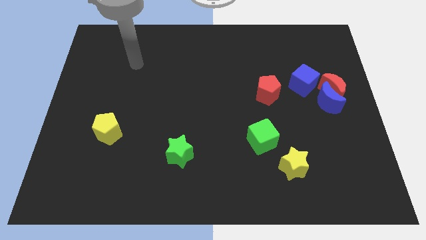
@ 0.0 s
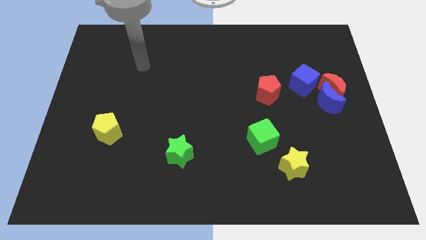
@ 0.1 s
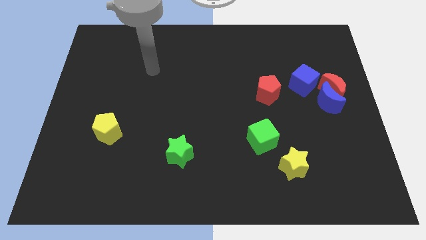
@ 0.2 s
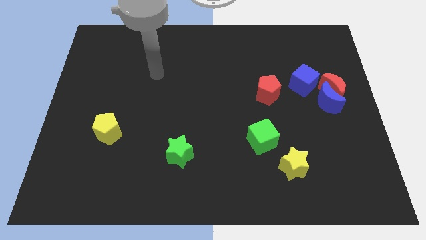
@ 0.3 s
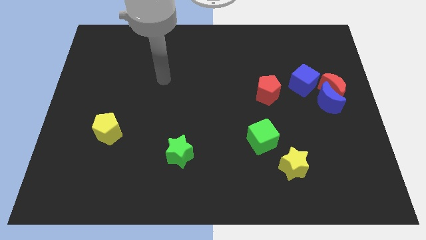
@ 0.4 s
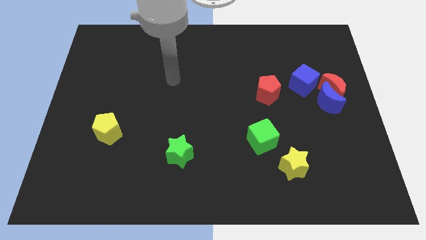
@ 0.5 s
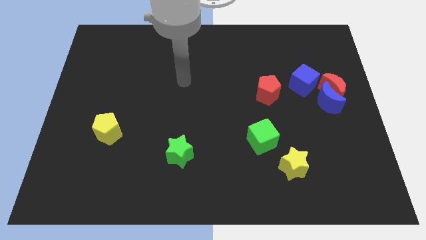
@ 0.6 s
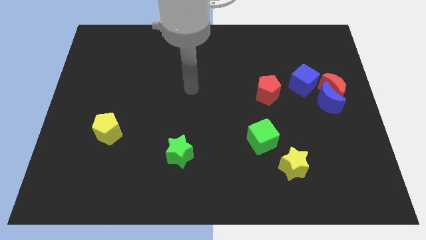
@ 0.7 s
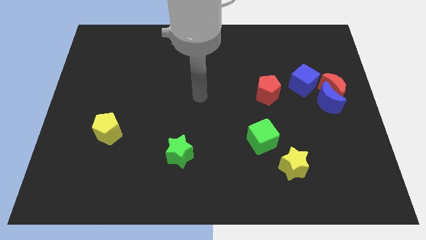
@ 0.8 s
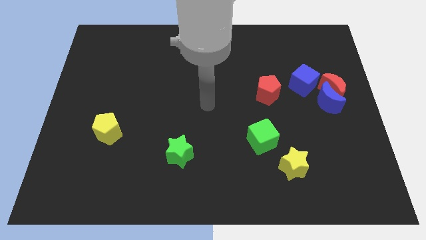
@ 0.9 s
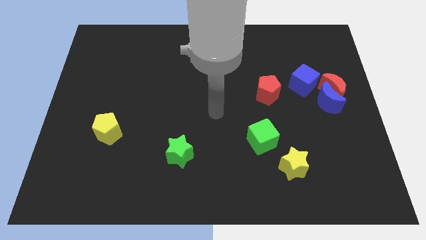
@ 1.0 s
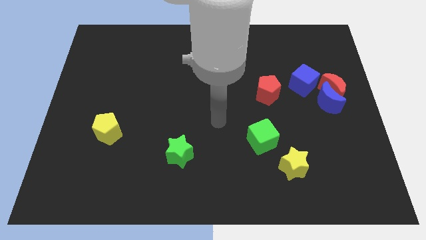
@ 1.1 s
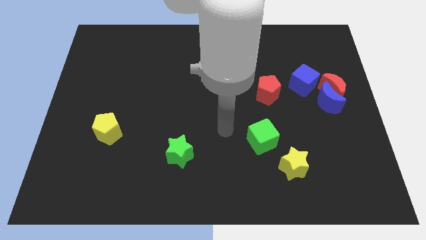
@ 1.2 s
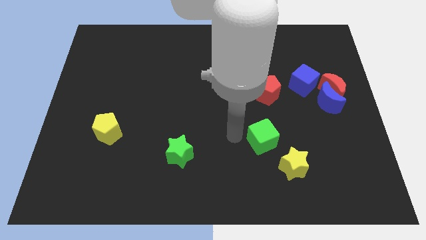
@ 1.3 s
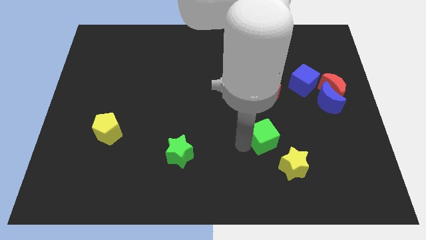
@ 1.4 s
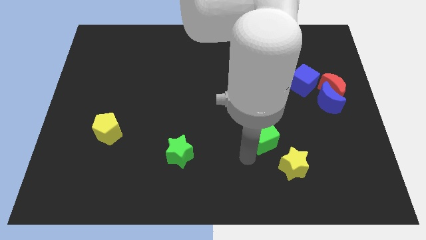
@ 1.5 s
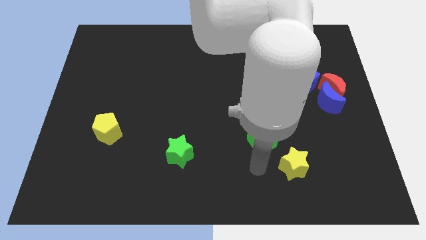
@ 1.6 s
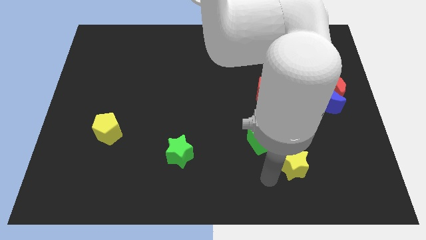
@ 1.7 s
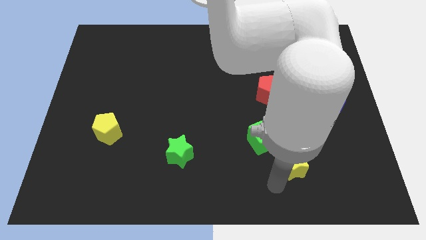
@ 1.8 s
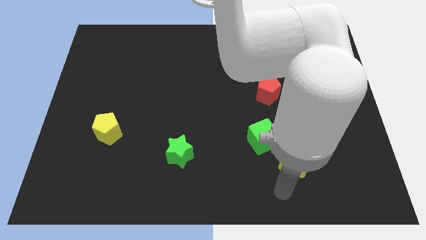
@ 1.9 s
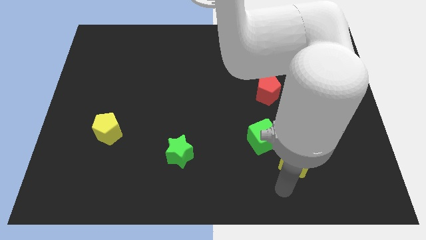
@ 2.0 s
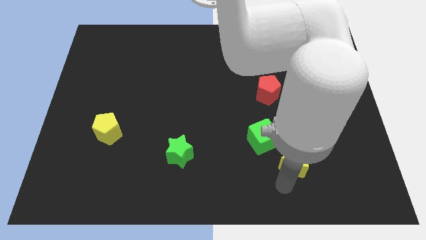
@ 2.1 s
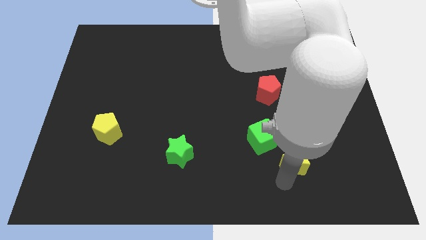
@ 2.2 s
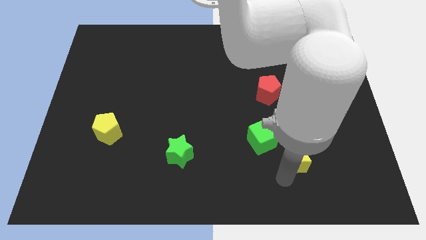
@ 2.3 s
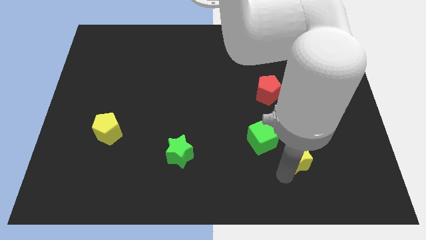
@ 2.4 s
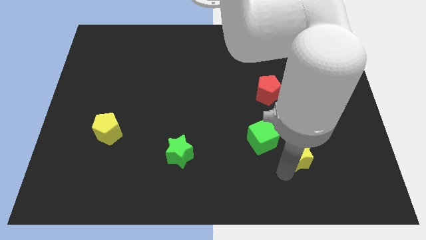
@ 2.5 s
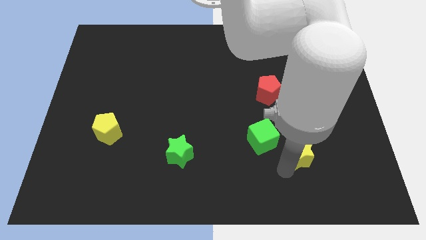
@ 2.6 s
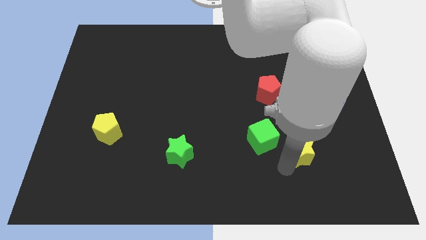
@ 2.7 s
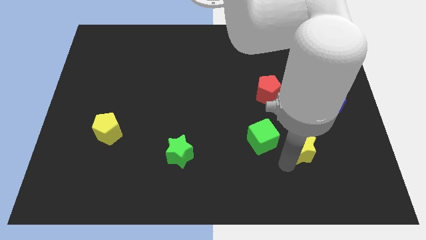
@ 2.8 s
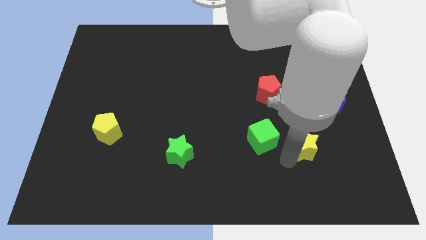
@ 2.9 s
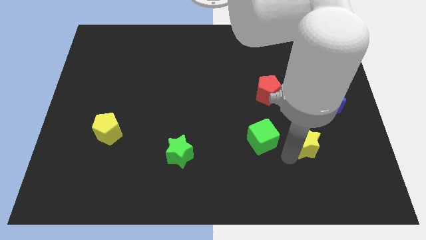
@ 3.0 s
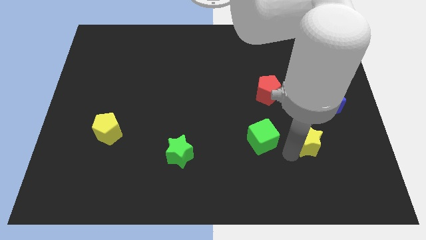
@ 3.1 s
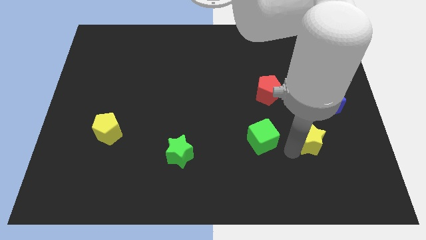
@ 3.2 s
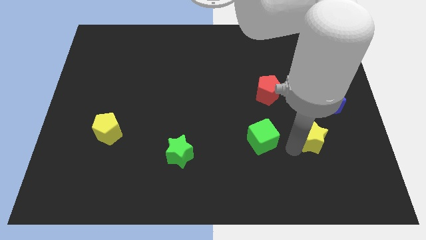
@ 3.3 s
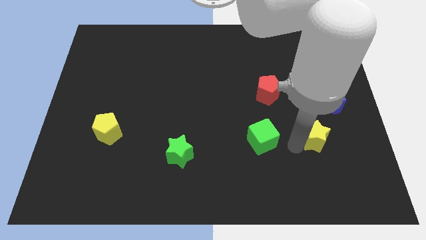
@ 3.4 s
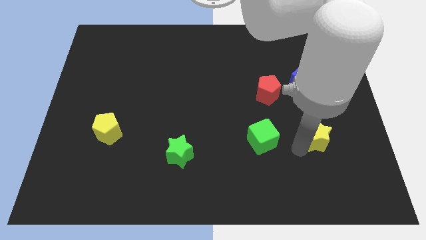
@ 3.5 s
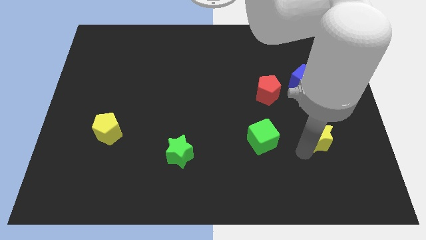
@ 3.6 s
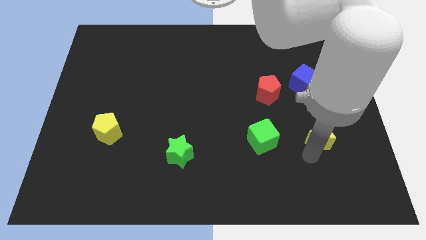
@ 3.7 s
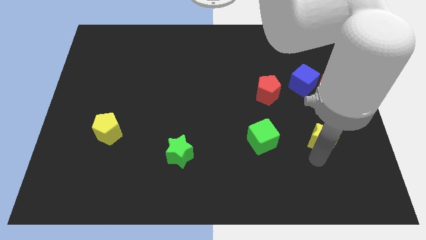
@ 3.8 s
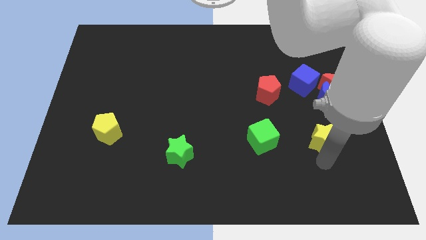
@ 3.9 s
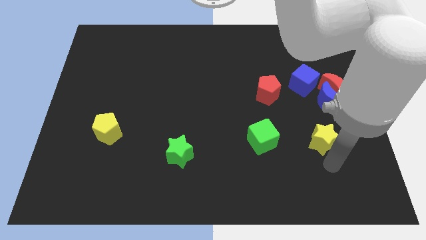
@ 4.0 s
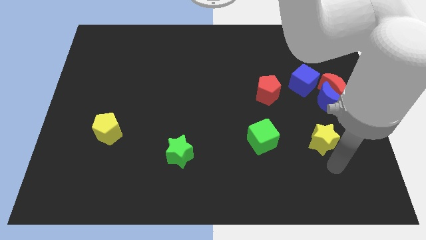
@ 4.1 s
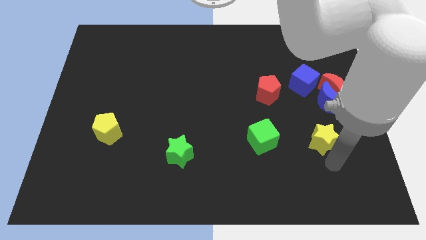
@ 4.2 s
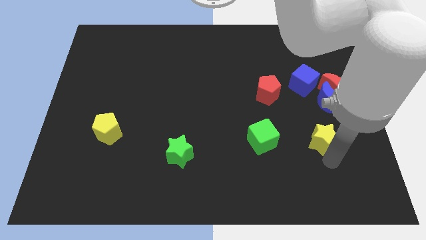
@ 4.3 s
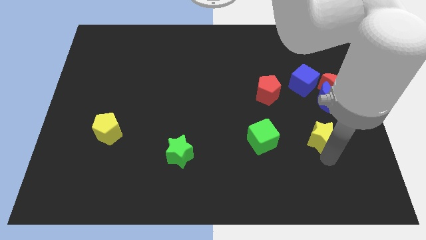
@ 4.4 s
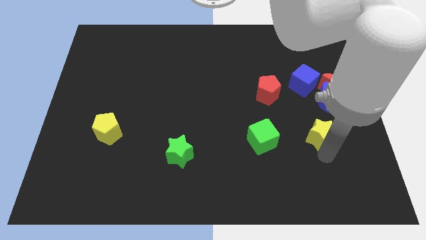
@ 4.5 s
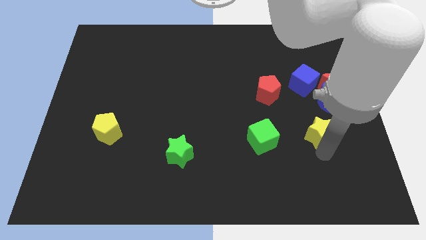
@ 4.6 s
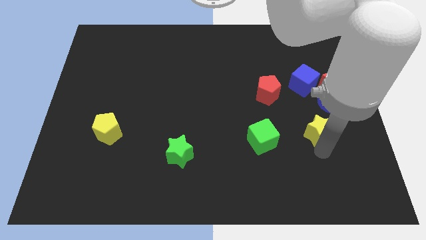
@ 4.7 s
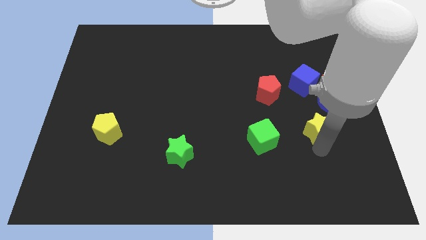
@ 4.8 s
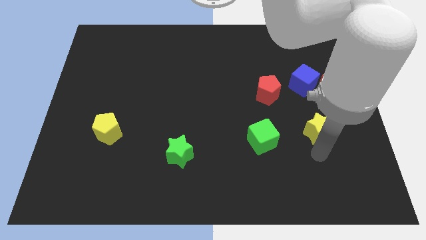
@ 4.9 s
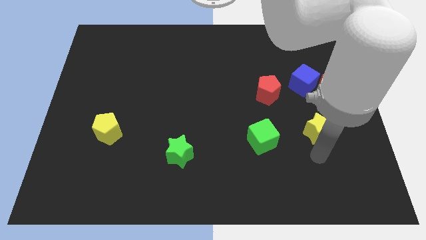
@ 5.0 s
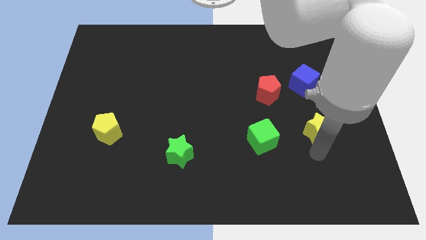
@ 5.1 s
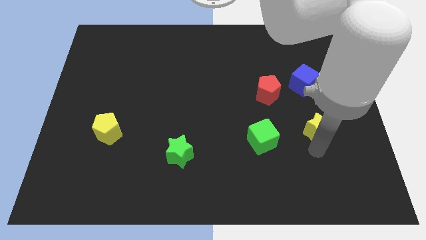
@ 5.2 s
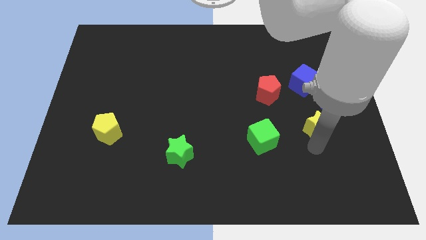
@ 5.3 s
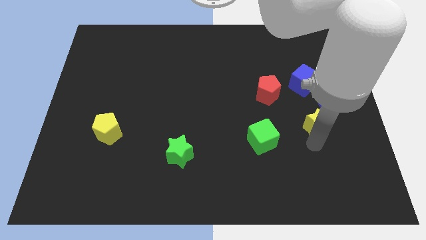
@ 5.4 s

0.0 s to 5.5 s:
push the yellow star to the bottom left side of the red moon
